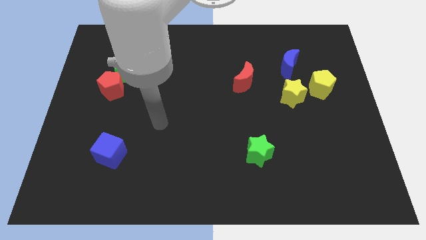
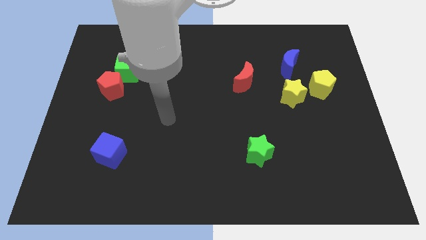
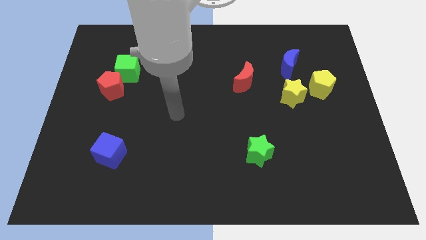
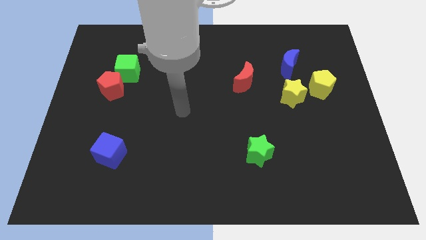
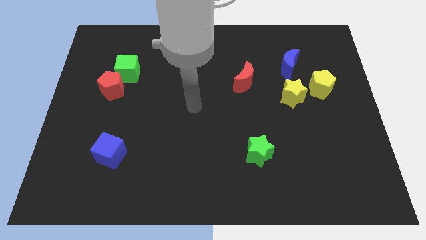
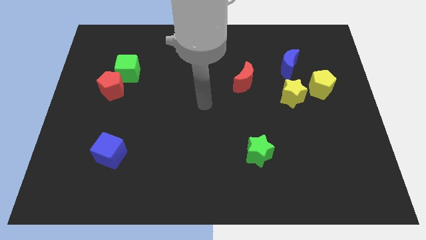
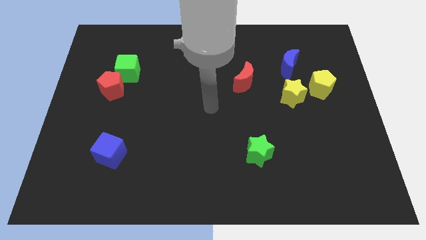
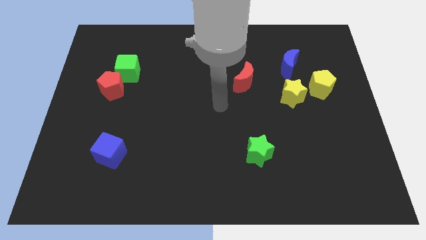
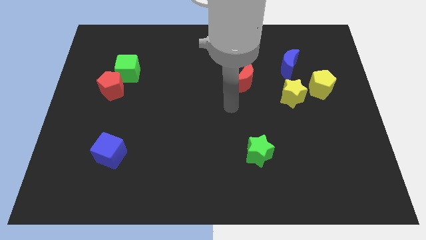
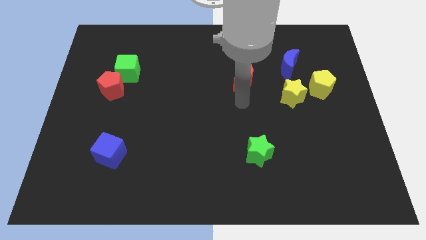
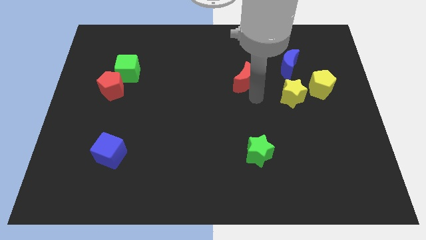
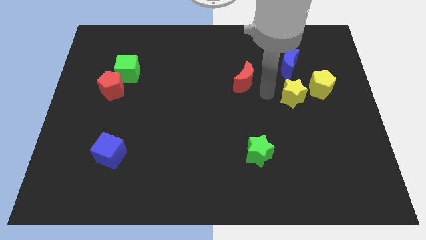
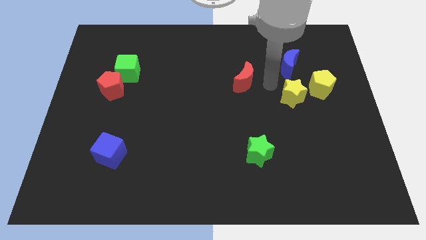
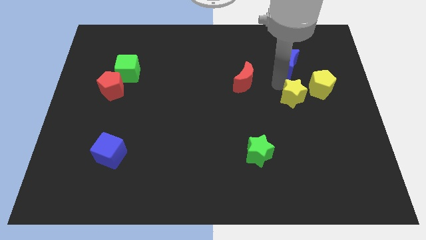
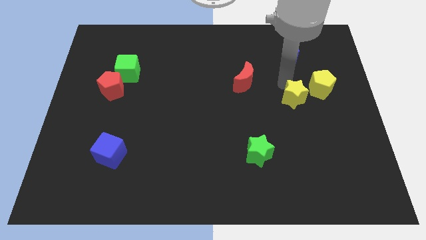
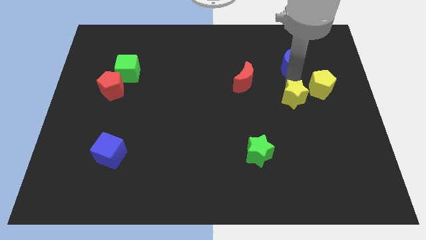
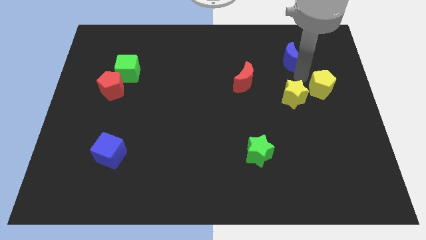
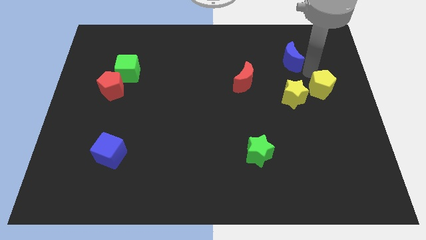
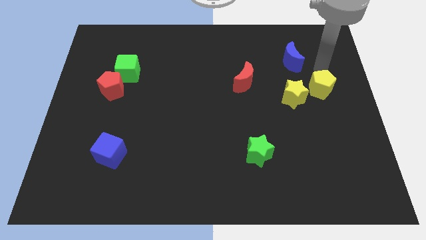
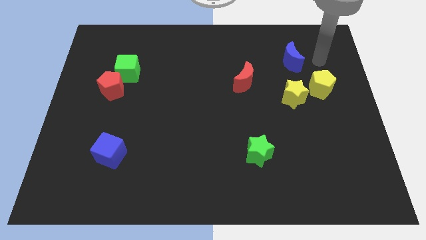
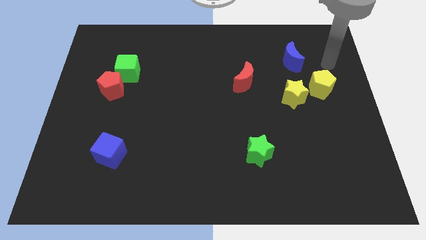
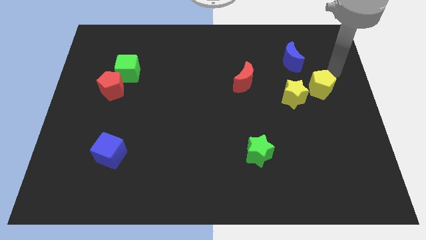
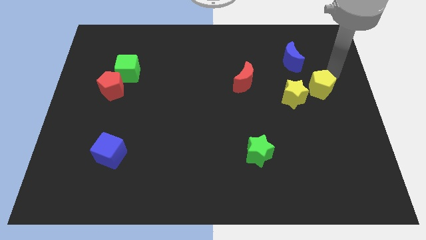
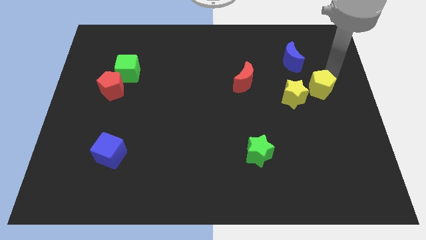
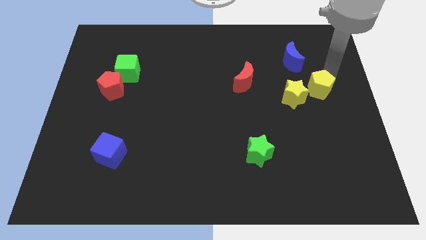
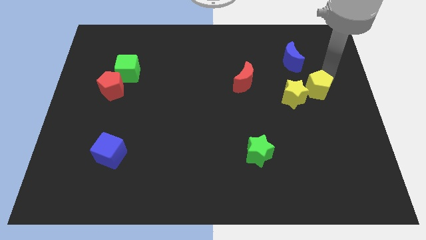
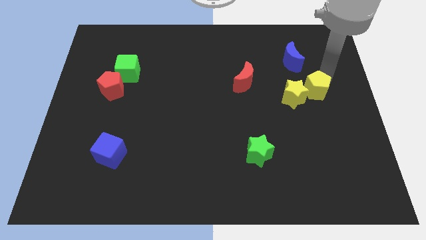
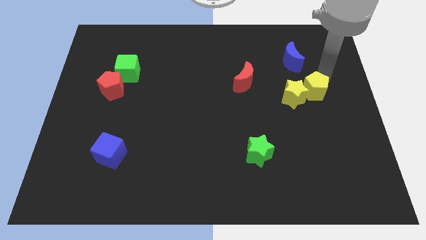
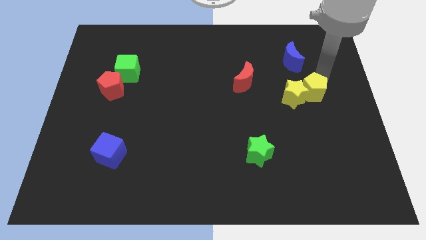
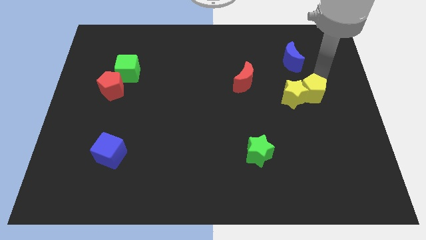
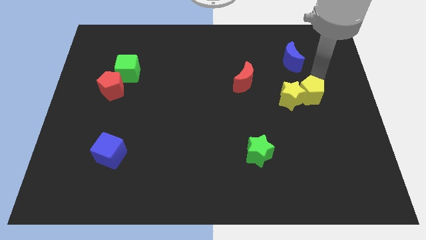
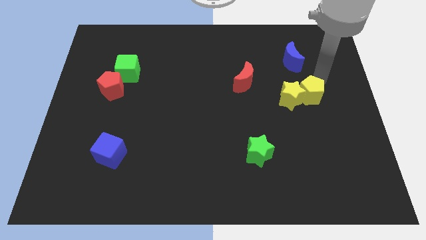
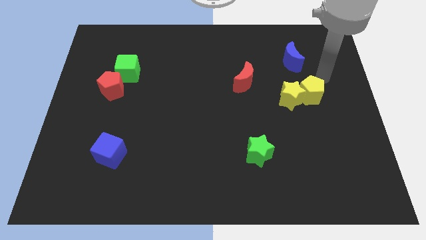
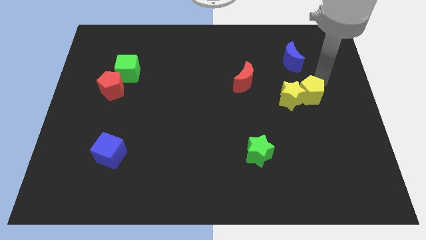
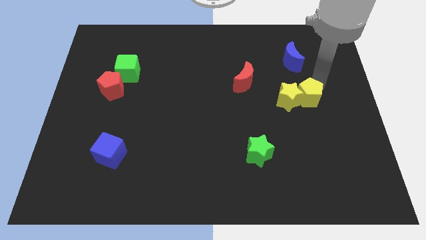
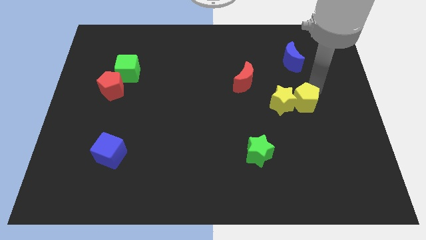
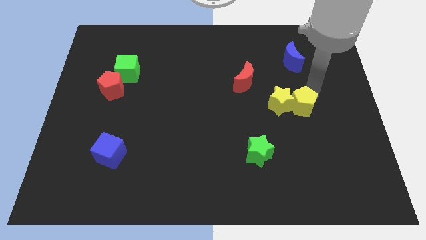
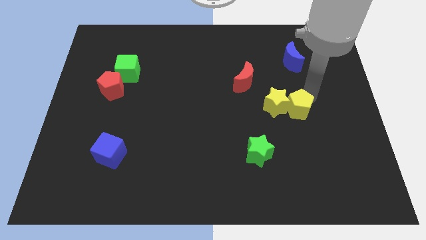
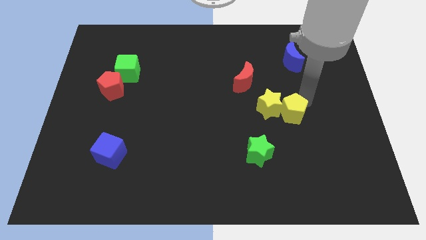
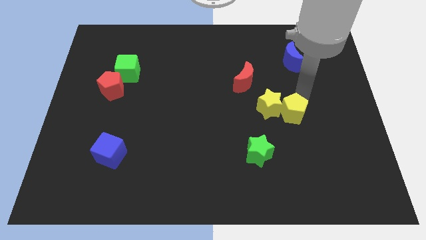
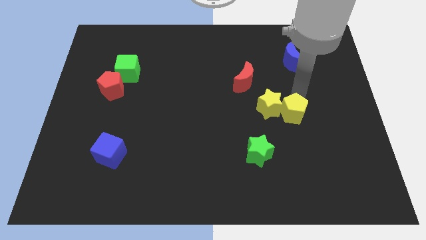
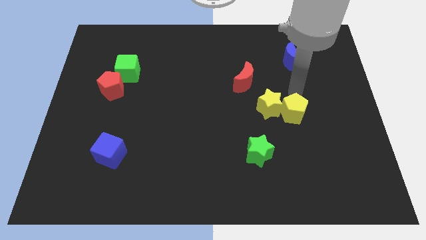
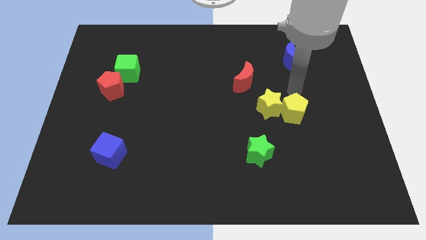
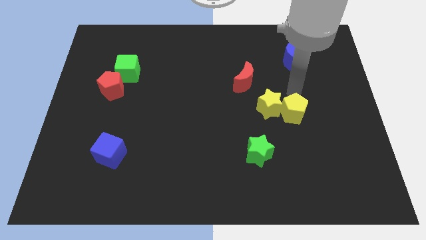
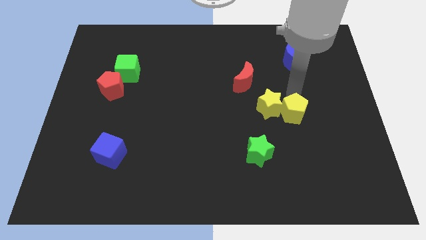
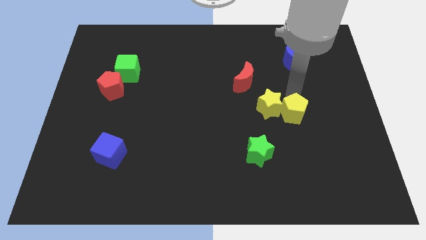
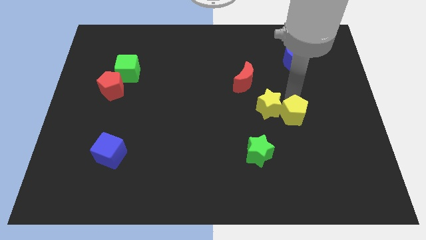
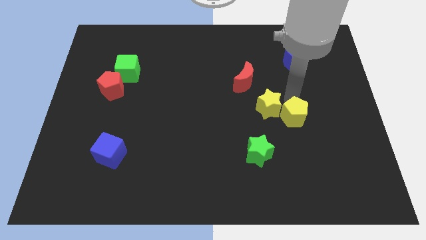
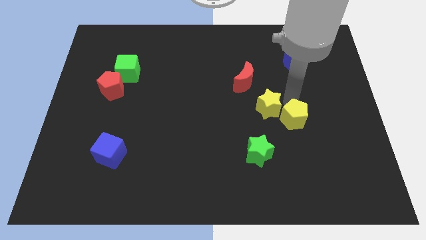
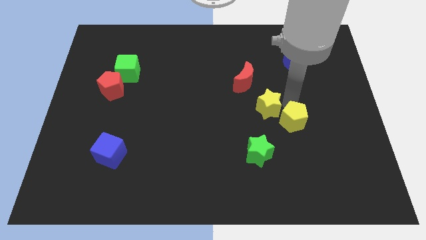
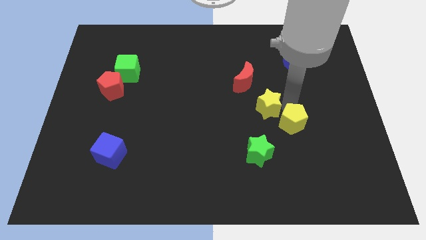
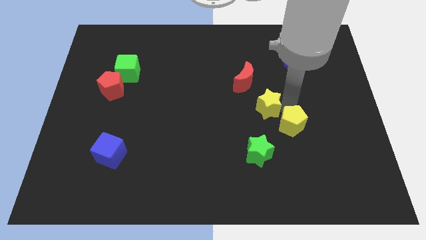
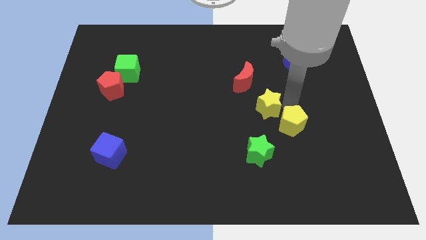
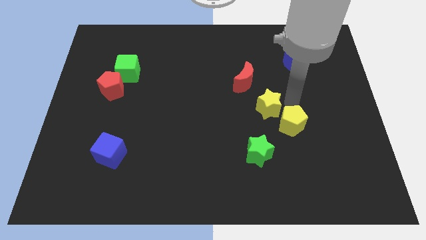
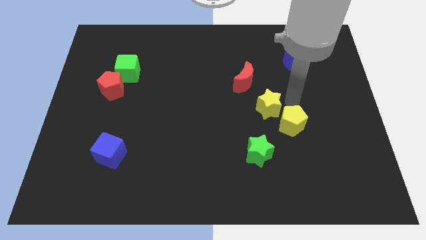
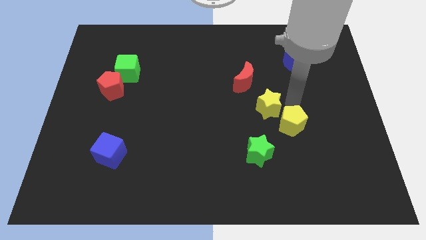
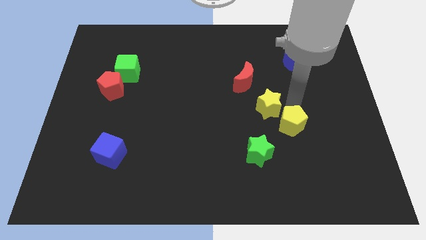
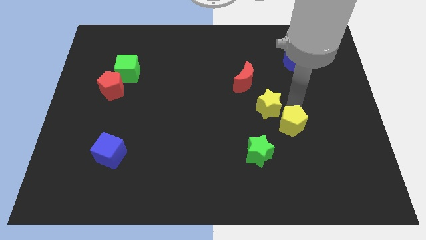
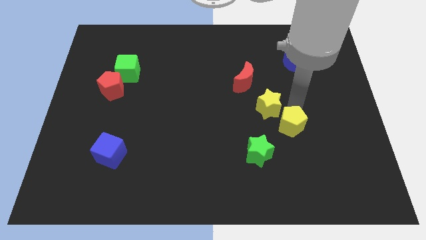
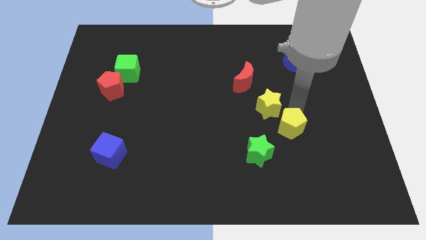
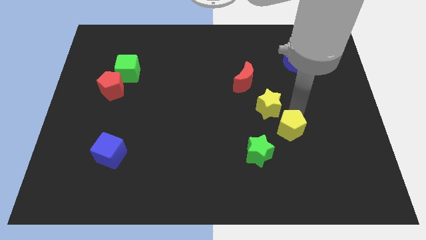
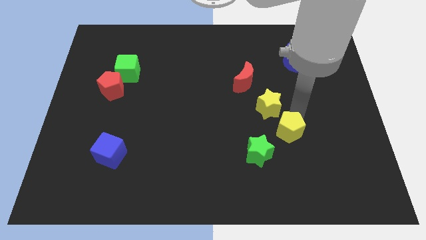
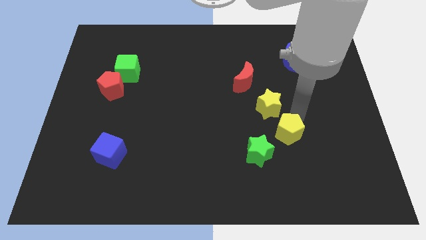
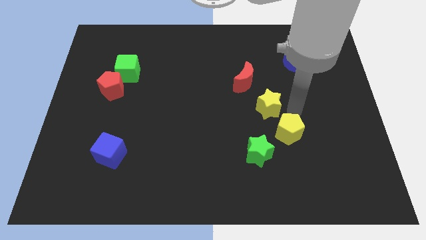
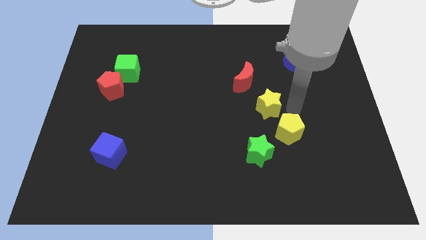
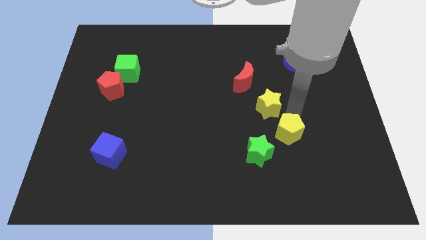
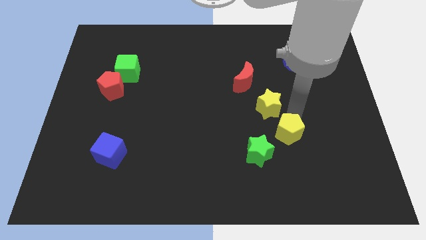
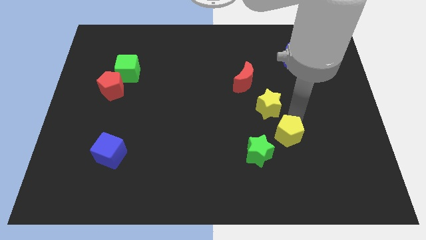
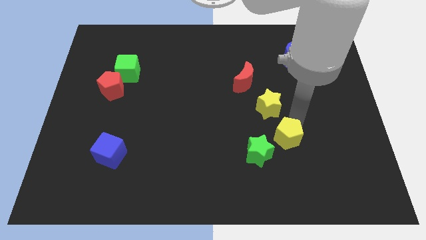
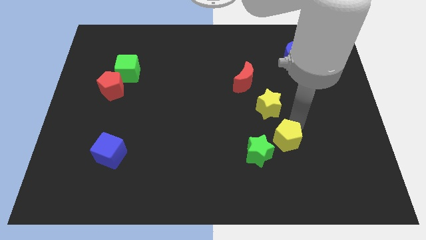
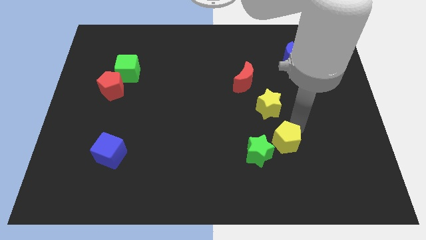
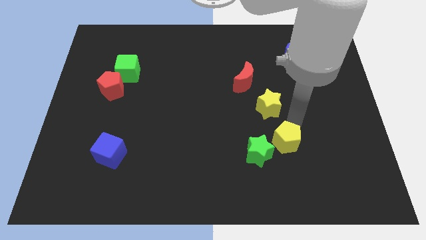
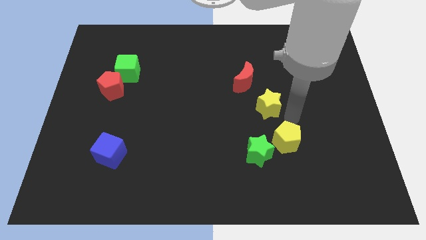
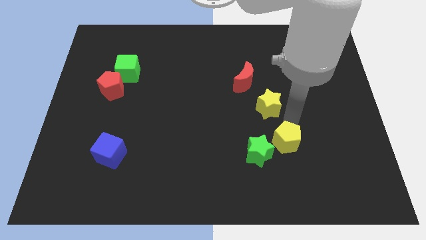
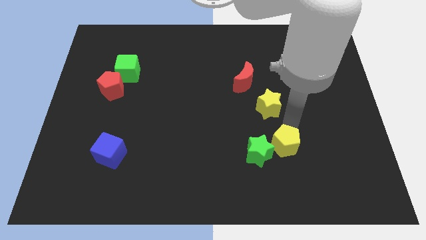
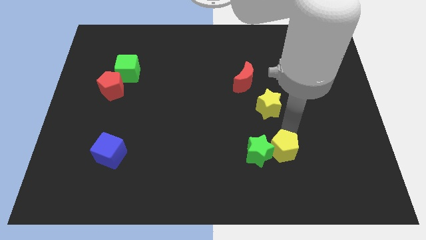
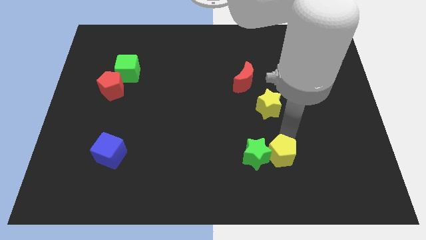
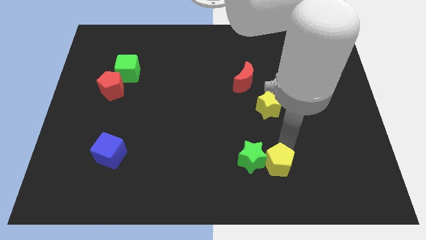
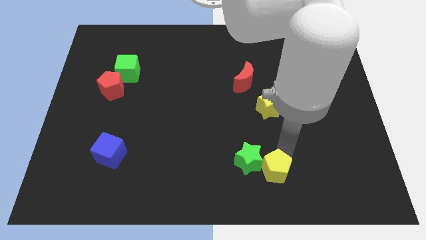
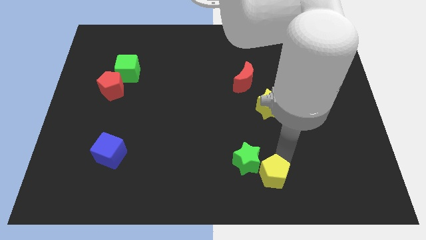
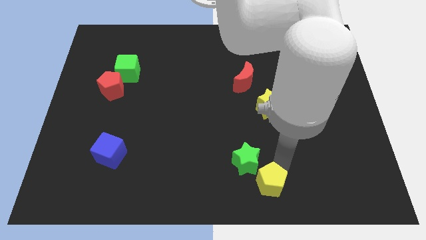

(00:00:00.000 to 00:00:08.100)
move the yellow pentagon to the bottom side
